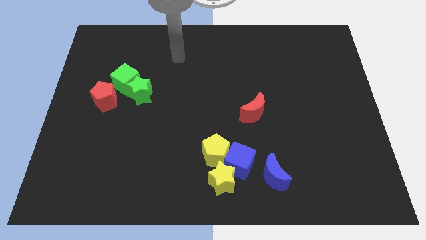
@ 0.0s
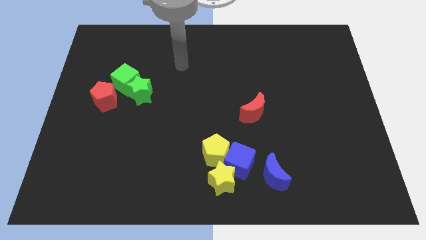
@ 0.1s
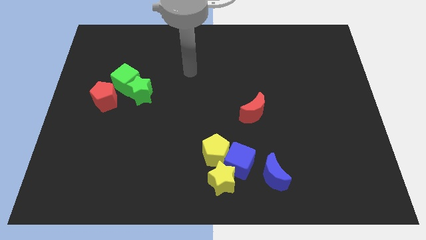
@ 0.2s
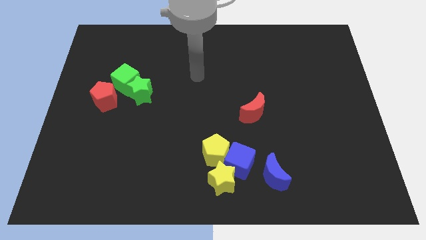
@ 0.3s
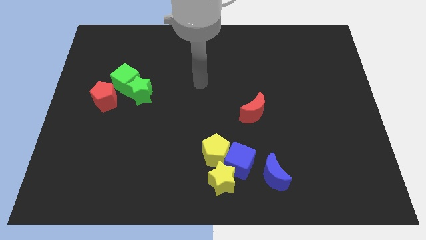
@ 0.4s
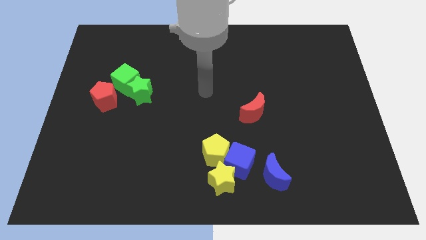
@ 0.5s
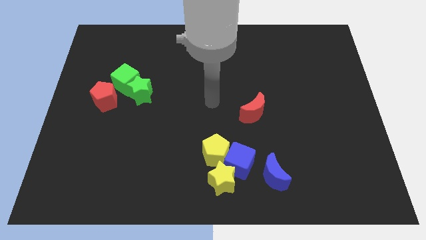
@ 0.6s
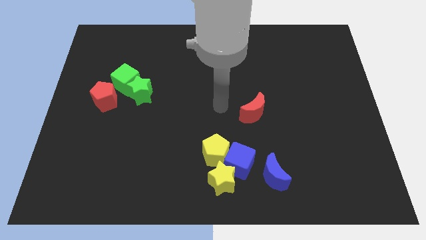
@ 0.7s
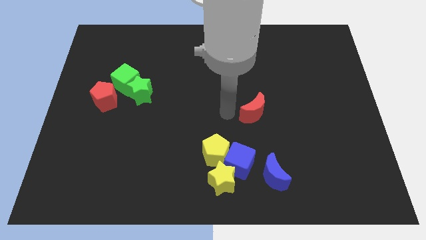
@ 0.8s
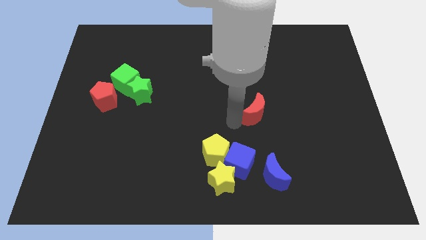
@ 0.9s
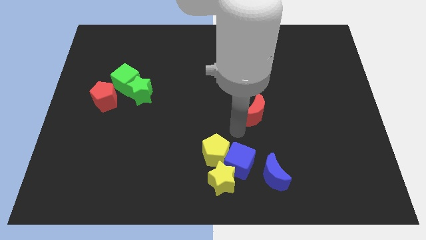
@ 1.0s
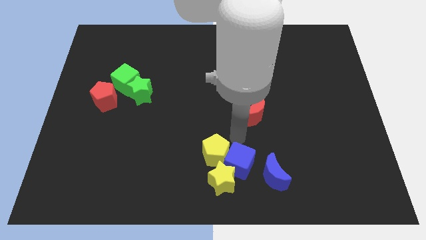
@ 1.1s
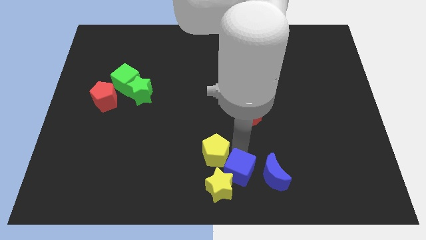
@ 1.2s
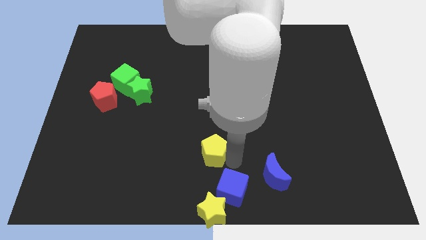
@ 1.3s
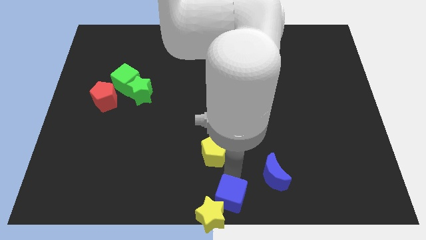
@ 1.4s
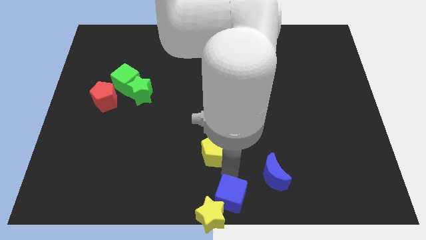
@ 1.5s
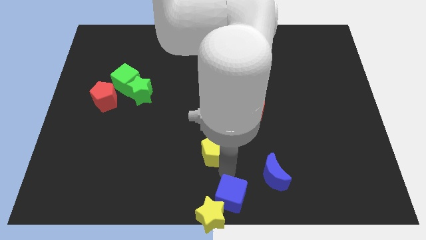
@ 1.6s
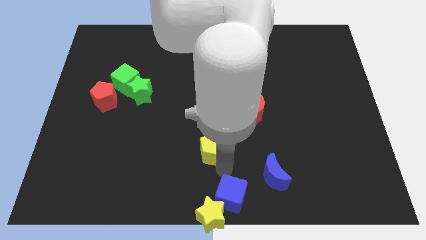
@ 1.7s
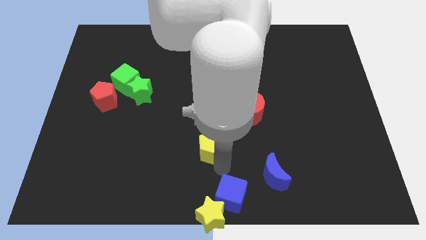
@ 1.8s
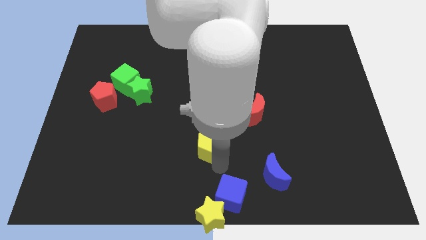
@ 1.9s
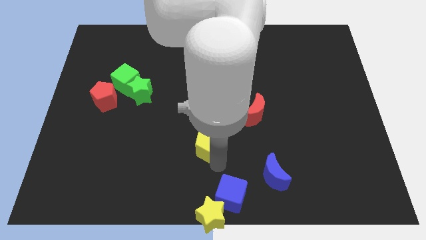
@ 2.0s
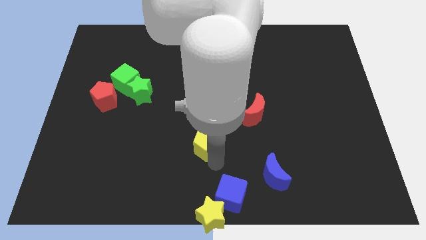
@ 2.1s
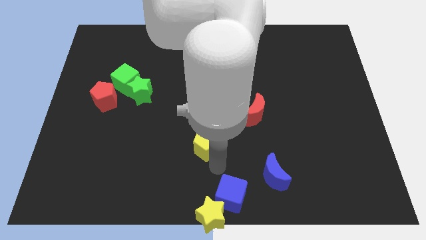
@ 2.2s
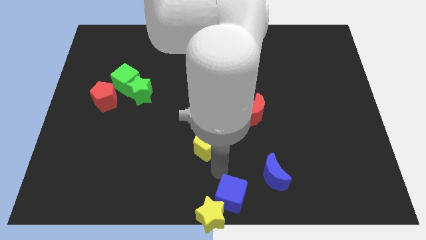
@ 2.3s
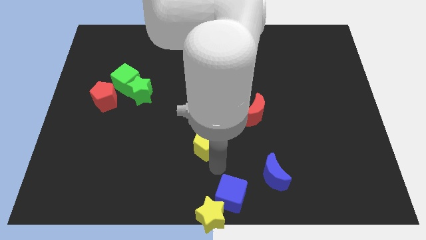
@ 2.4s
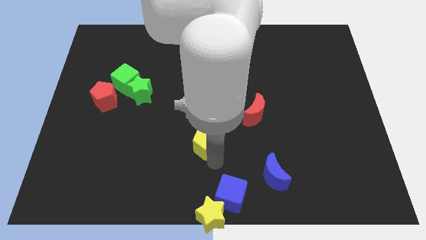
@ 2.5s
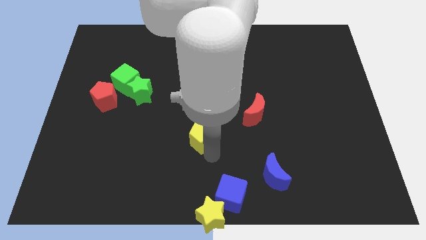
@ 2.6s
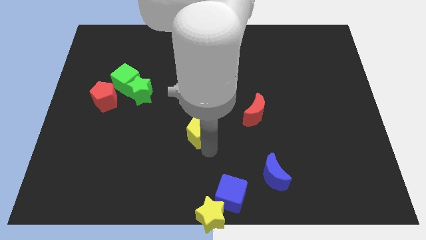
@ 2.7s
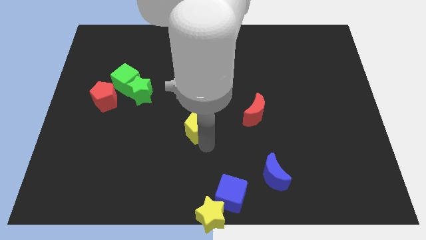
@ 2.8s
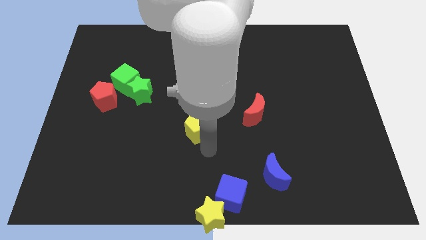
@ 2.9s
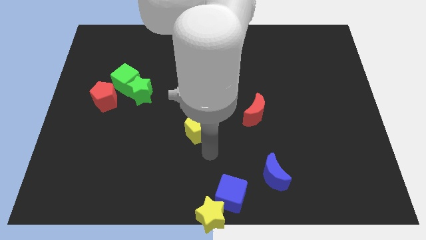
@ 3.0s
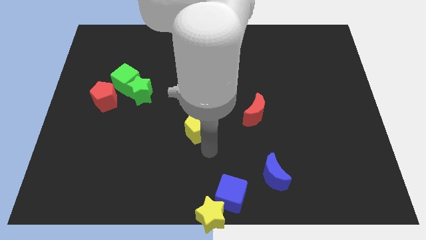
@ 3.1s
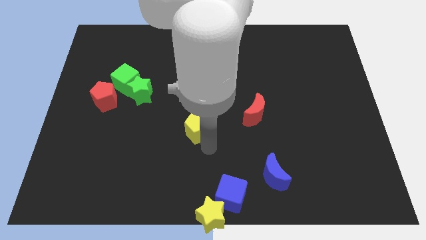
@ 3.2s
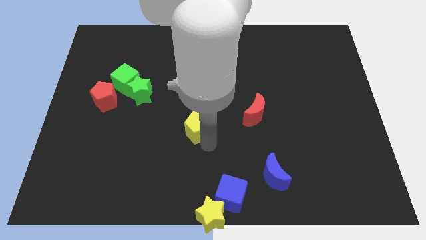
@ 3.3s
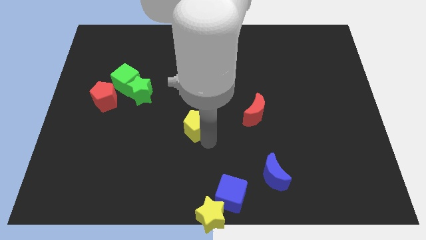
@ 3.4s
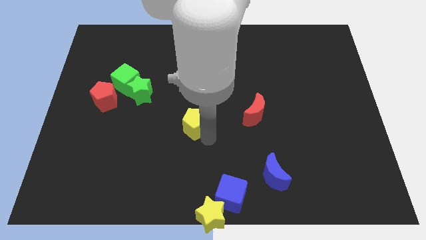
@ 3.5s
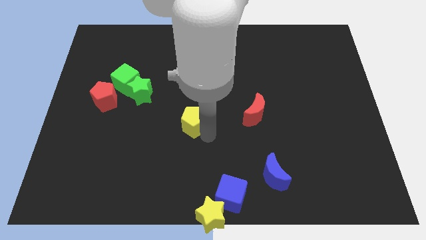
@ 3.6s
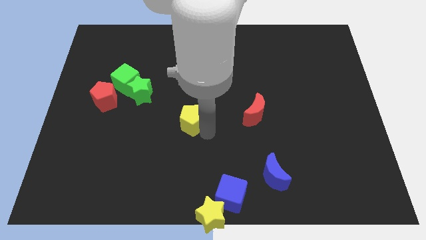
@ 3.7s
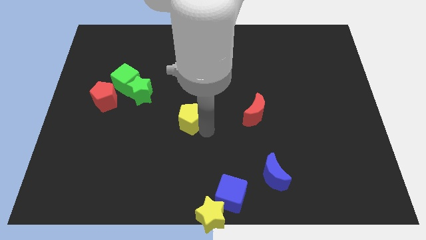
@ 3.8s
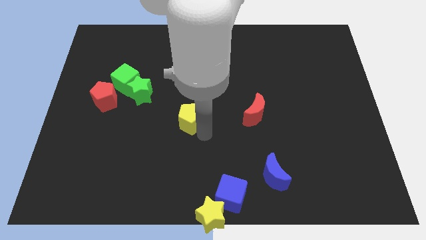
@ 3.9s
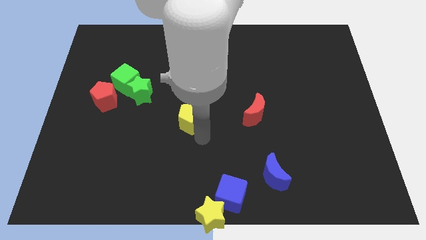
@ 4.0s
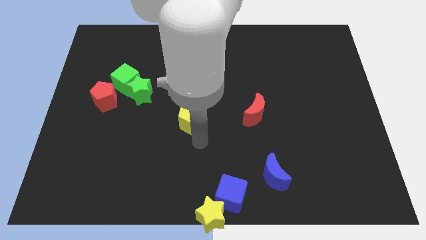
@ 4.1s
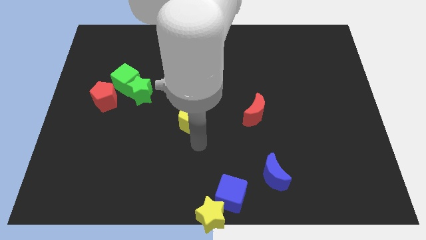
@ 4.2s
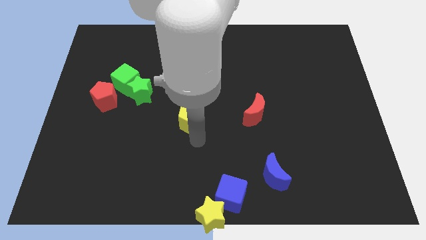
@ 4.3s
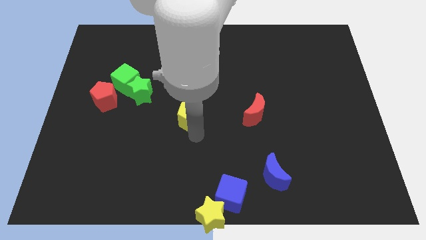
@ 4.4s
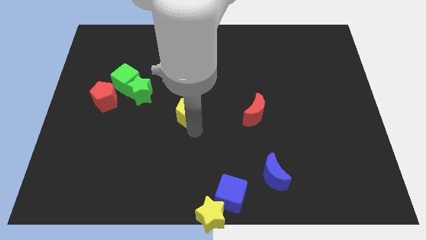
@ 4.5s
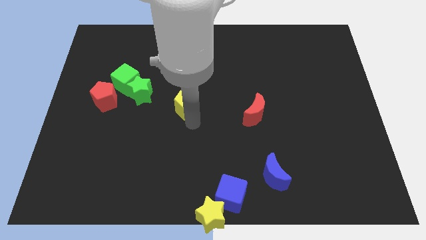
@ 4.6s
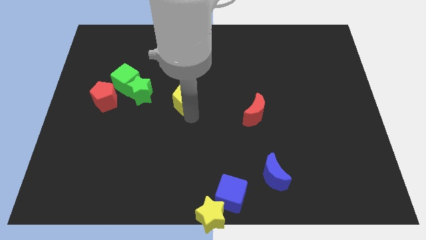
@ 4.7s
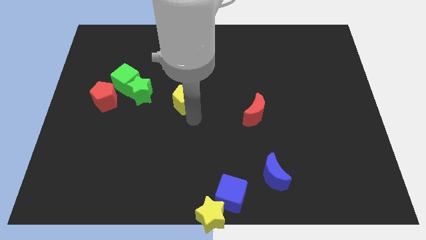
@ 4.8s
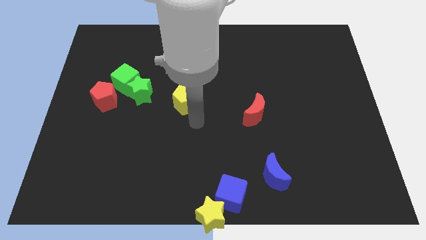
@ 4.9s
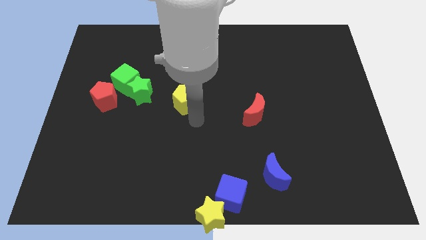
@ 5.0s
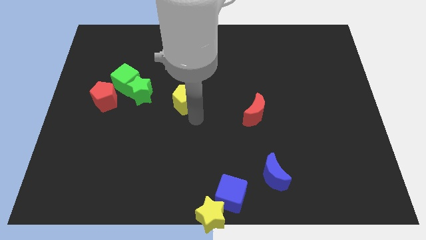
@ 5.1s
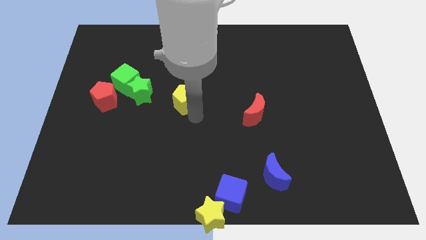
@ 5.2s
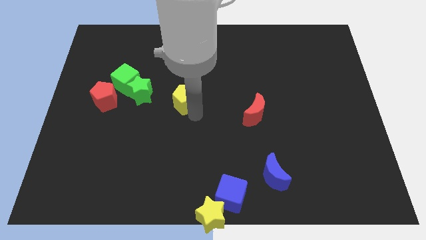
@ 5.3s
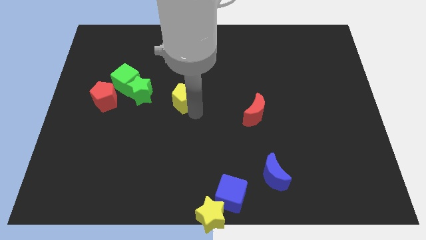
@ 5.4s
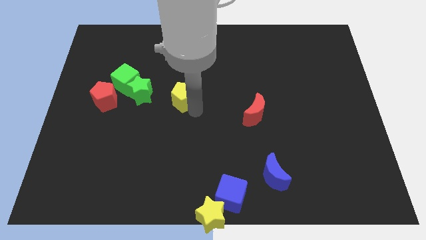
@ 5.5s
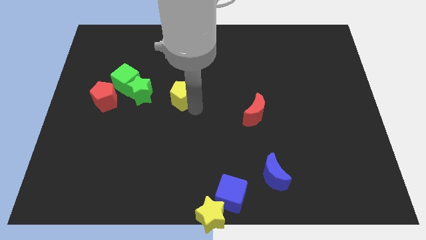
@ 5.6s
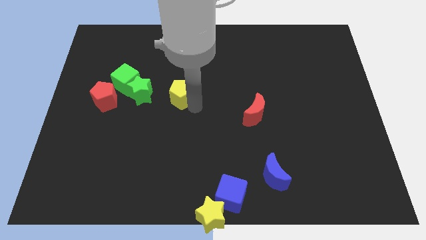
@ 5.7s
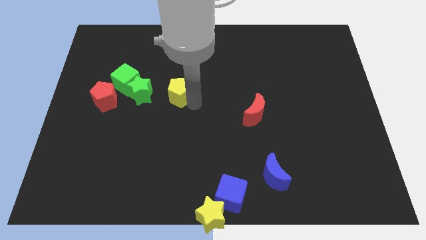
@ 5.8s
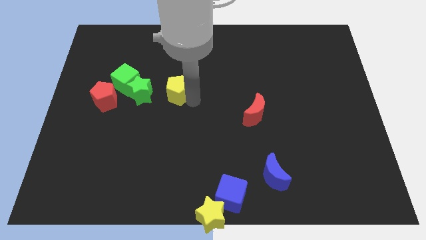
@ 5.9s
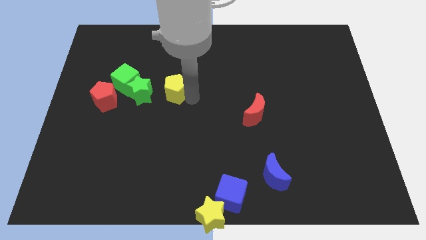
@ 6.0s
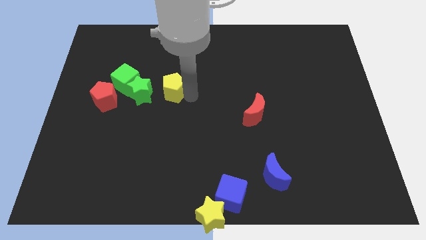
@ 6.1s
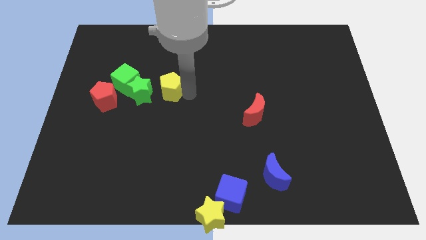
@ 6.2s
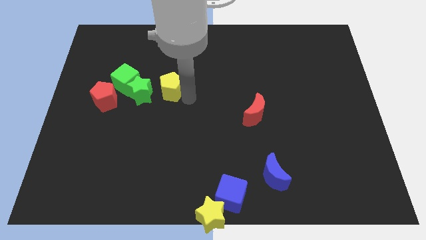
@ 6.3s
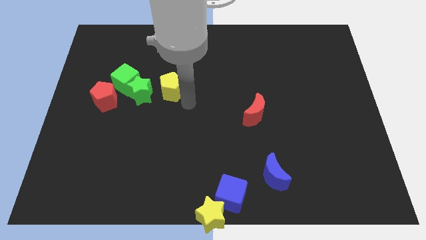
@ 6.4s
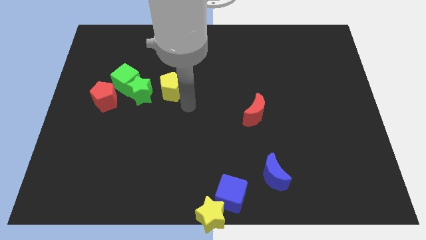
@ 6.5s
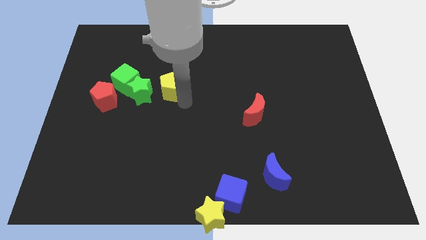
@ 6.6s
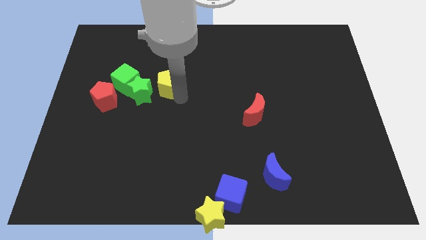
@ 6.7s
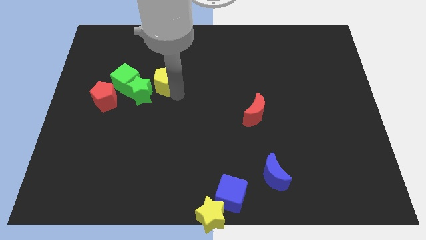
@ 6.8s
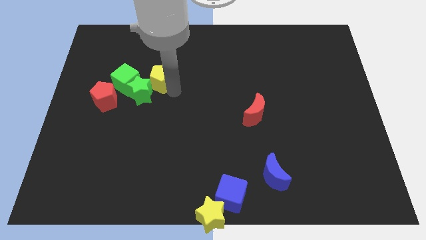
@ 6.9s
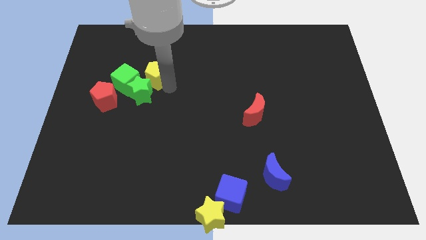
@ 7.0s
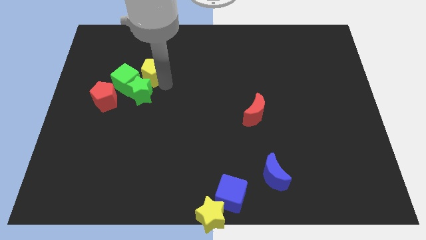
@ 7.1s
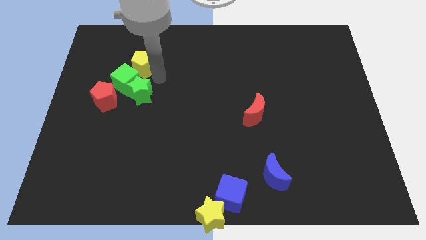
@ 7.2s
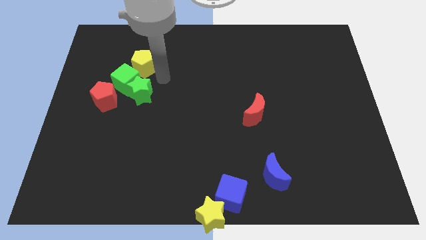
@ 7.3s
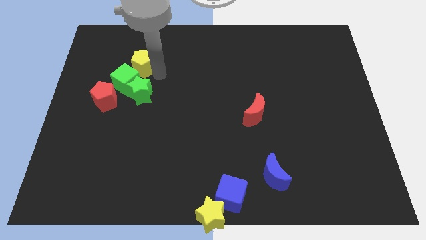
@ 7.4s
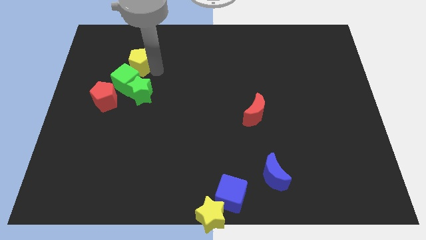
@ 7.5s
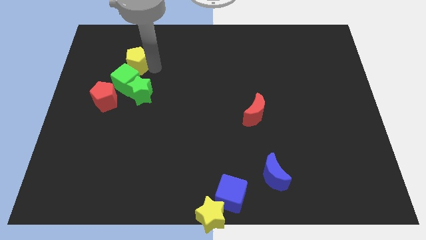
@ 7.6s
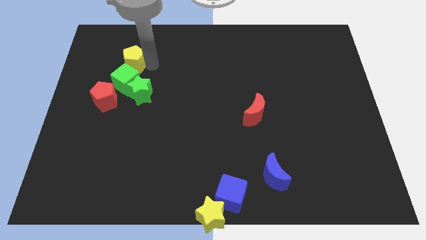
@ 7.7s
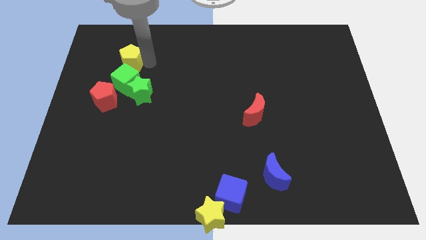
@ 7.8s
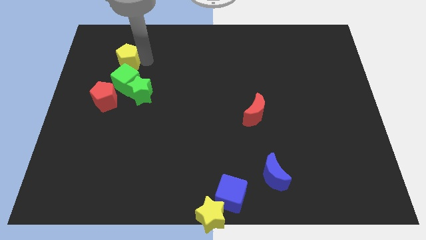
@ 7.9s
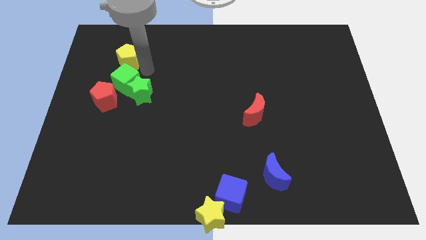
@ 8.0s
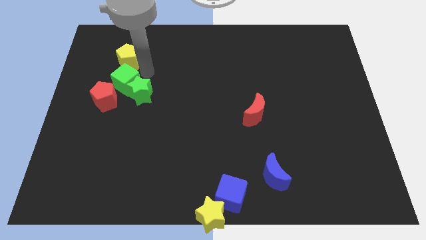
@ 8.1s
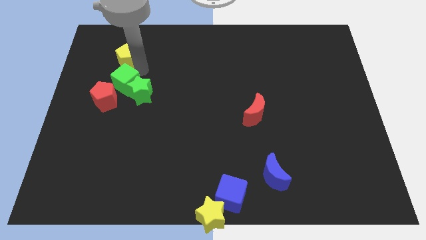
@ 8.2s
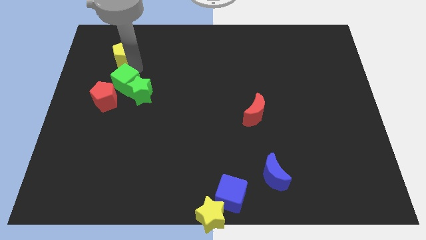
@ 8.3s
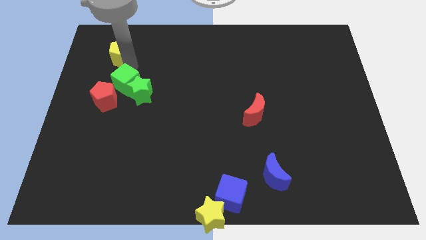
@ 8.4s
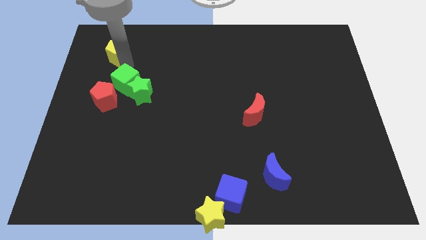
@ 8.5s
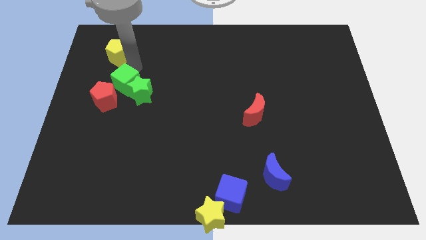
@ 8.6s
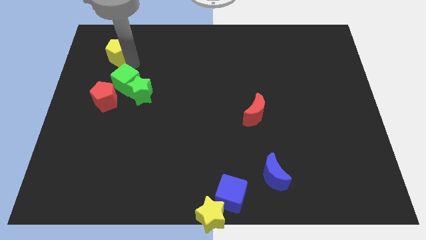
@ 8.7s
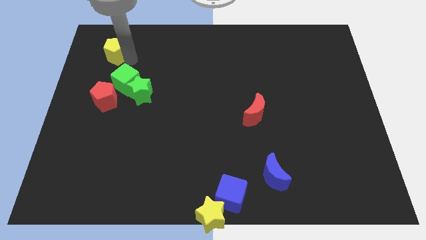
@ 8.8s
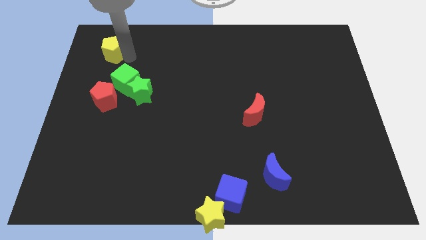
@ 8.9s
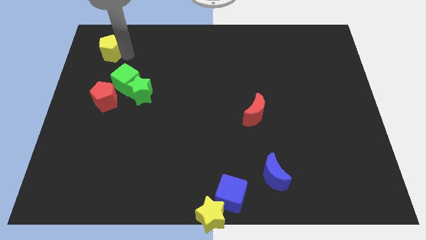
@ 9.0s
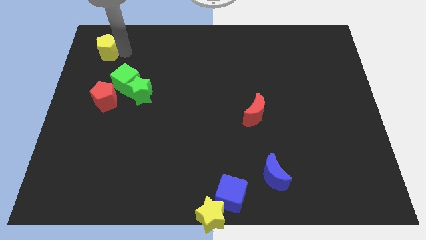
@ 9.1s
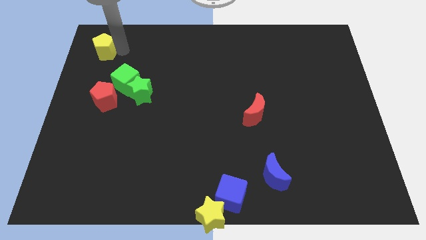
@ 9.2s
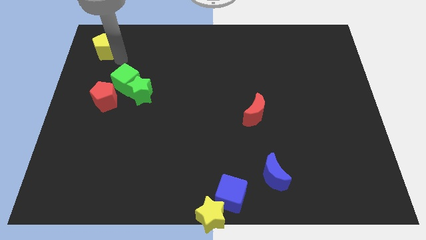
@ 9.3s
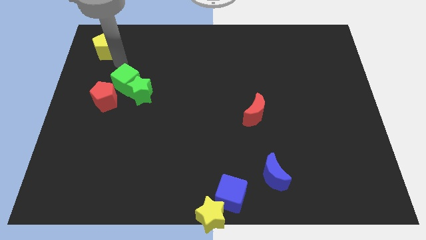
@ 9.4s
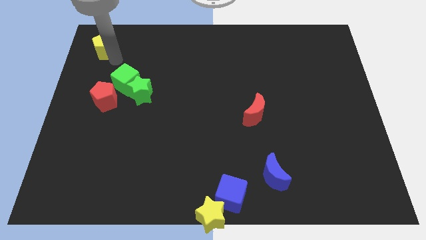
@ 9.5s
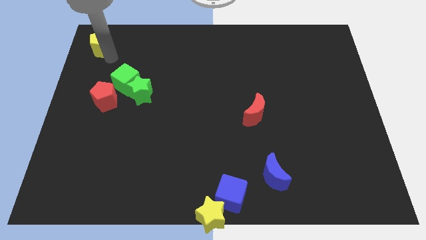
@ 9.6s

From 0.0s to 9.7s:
push the yellow pentagon to the top left corner
